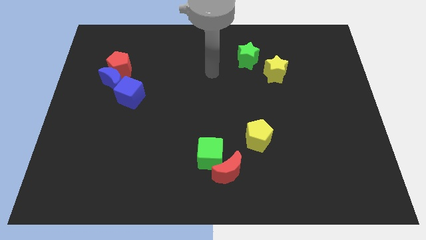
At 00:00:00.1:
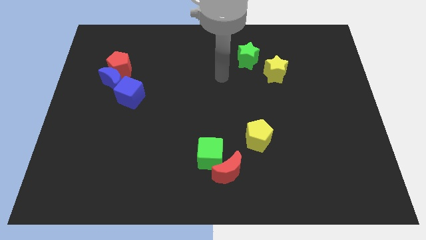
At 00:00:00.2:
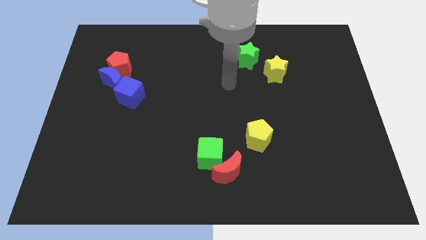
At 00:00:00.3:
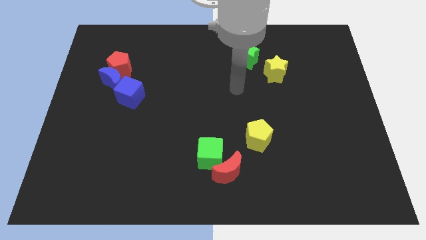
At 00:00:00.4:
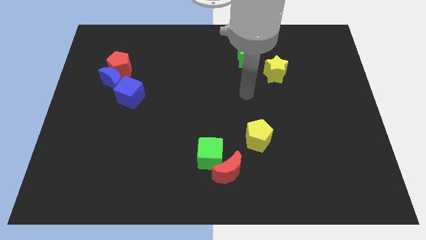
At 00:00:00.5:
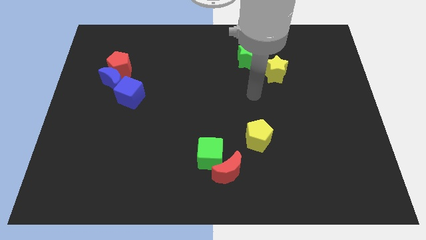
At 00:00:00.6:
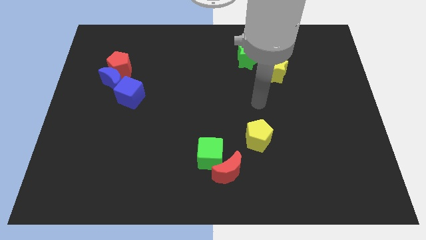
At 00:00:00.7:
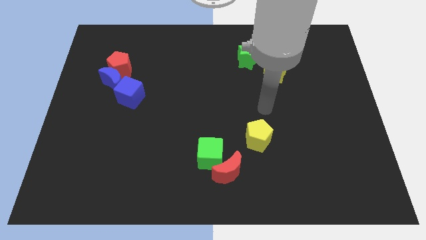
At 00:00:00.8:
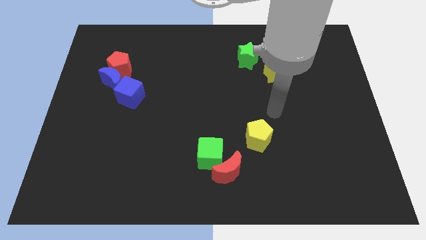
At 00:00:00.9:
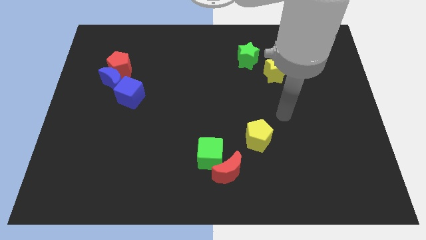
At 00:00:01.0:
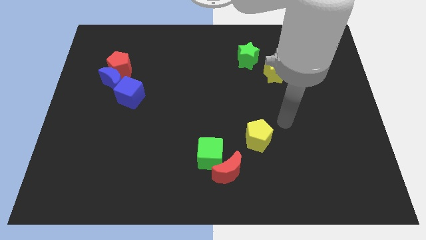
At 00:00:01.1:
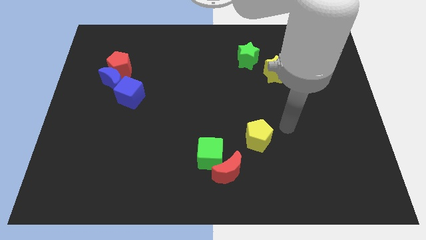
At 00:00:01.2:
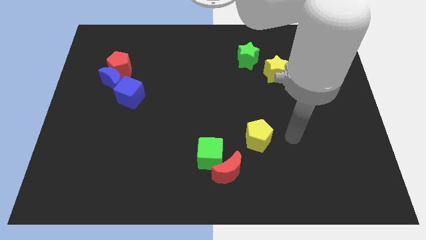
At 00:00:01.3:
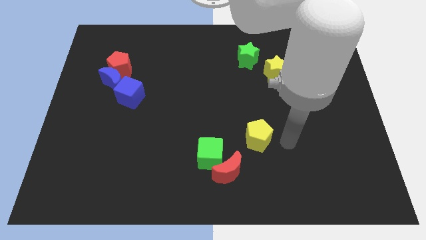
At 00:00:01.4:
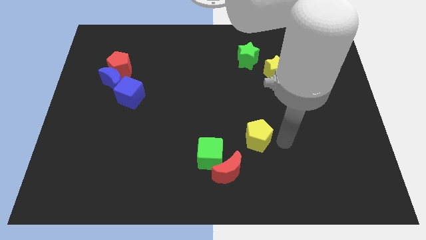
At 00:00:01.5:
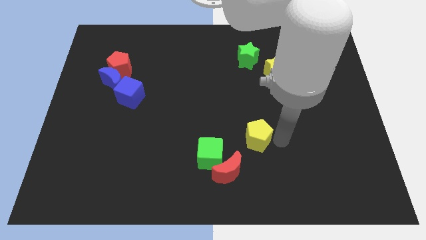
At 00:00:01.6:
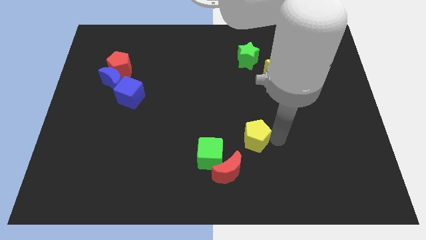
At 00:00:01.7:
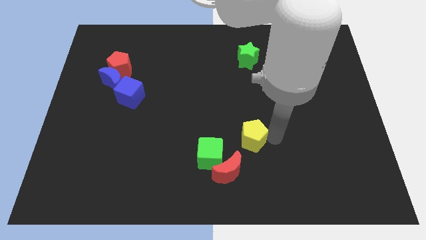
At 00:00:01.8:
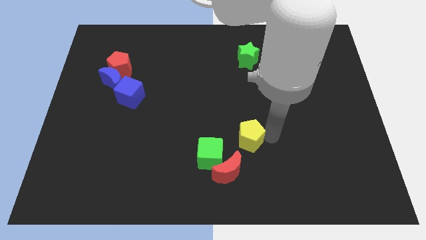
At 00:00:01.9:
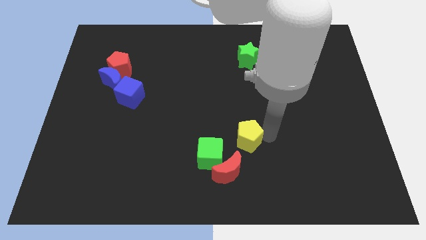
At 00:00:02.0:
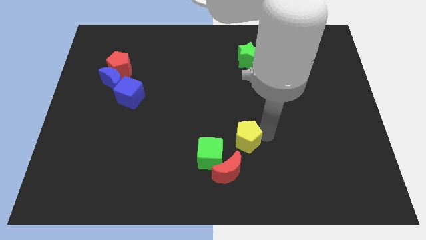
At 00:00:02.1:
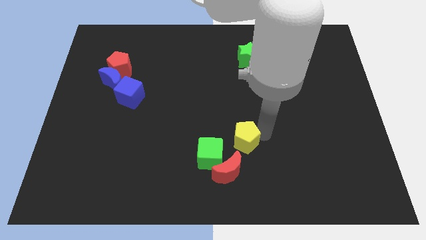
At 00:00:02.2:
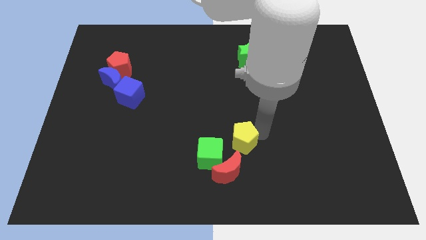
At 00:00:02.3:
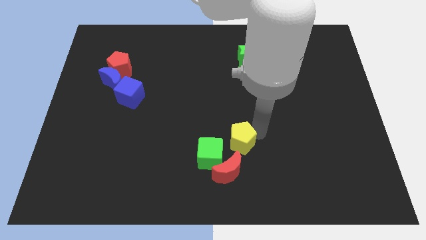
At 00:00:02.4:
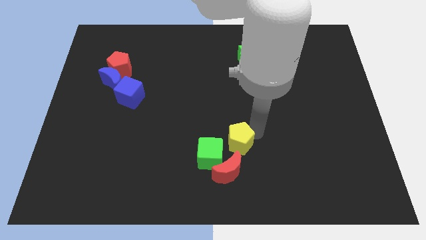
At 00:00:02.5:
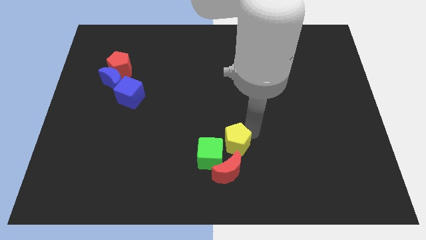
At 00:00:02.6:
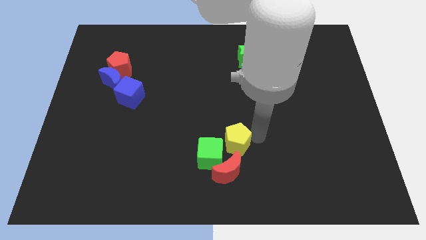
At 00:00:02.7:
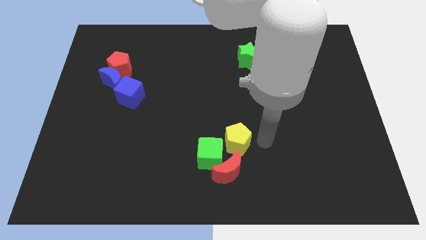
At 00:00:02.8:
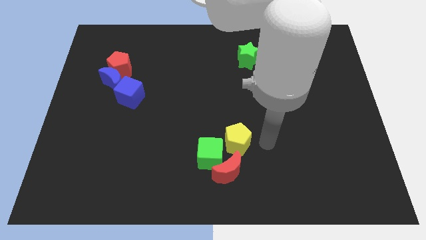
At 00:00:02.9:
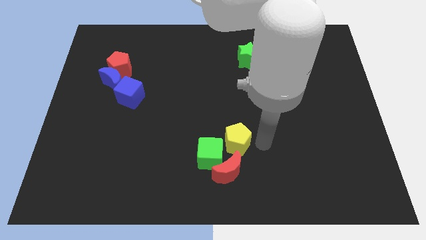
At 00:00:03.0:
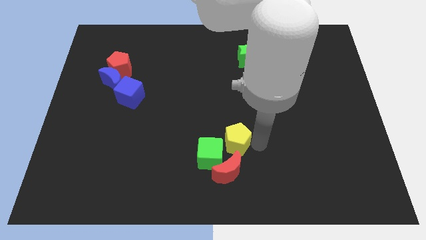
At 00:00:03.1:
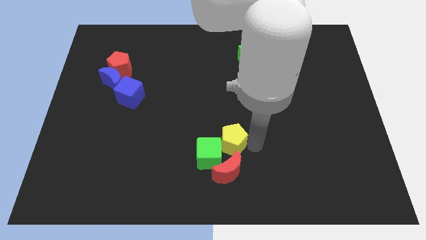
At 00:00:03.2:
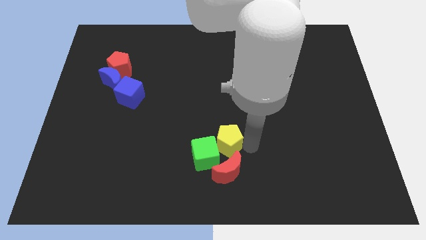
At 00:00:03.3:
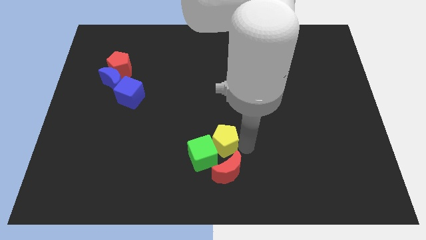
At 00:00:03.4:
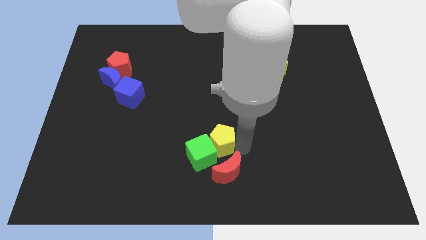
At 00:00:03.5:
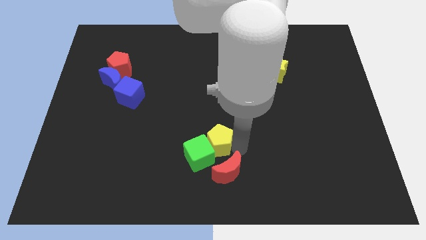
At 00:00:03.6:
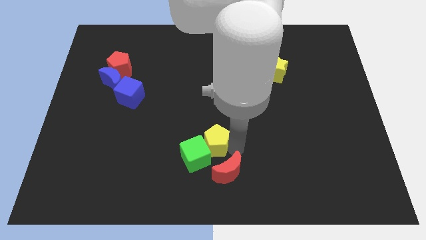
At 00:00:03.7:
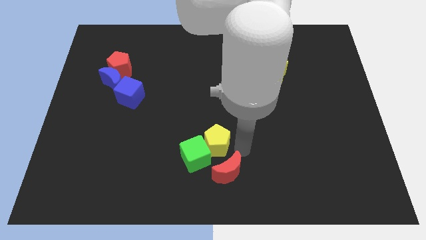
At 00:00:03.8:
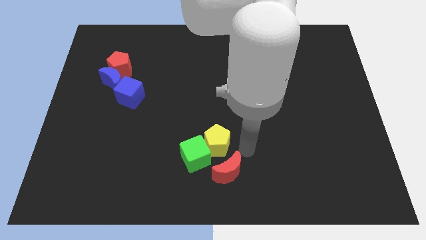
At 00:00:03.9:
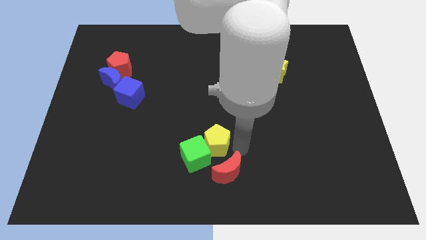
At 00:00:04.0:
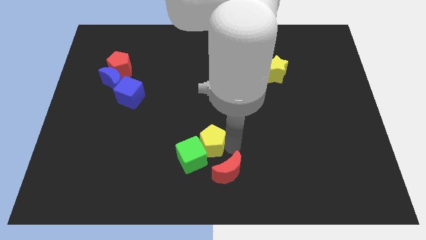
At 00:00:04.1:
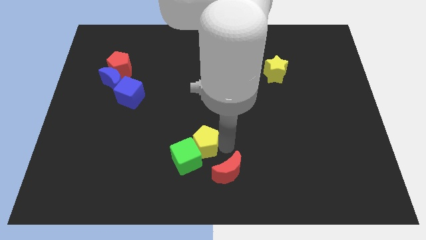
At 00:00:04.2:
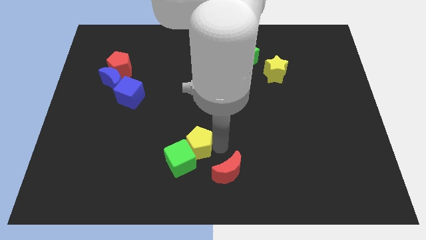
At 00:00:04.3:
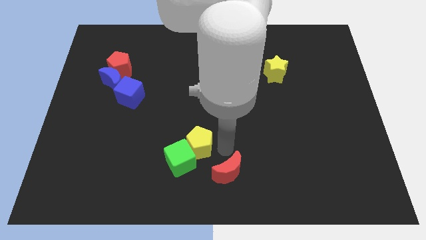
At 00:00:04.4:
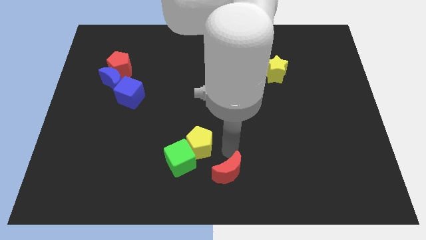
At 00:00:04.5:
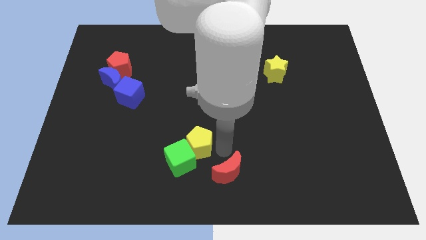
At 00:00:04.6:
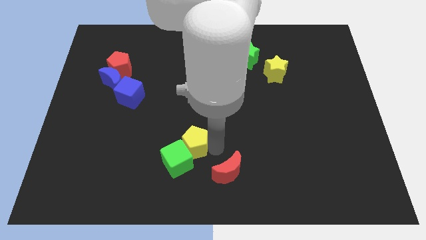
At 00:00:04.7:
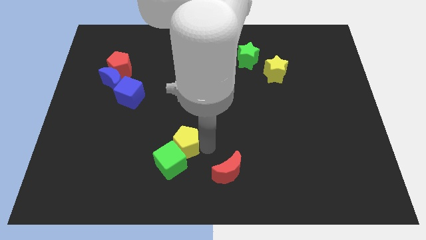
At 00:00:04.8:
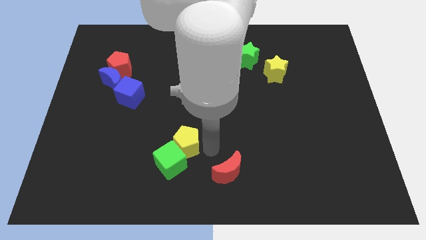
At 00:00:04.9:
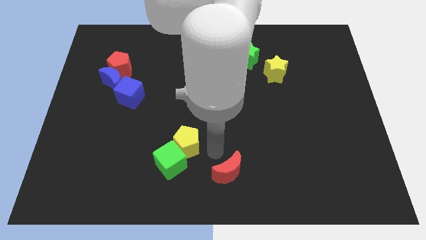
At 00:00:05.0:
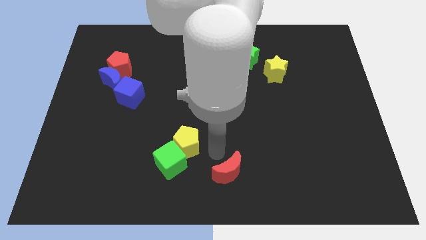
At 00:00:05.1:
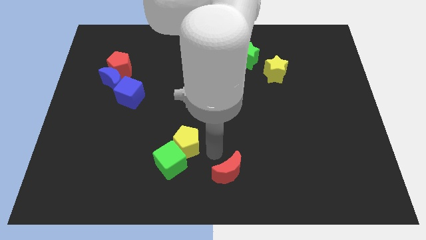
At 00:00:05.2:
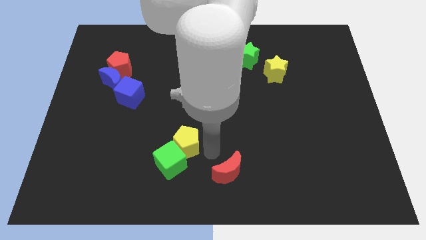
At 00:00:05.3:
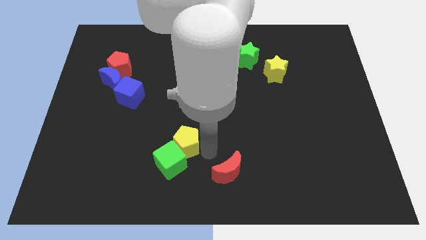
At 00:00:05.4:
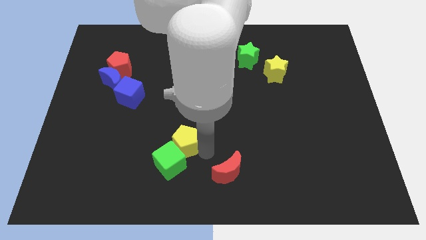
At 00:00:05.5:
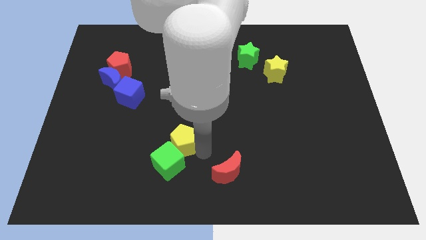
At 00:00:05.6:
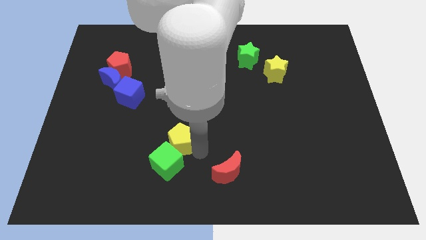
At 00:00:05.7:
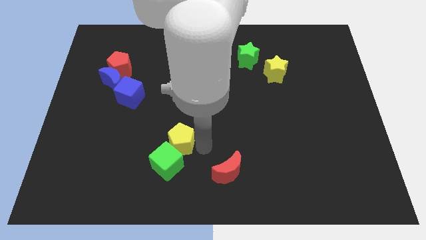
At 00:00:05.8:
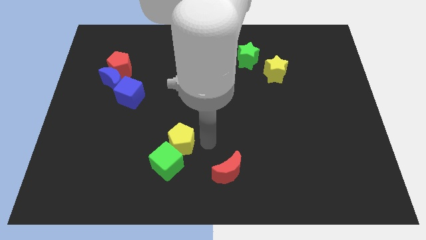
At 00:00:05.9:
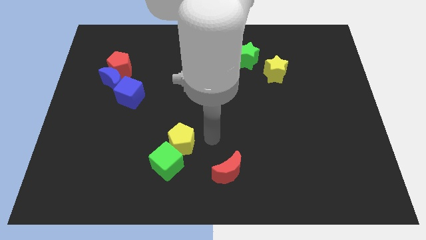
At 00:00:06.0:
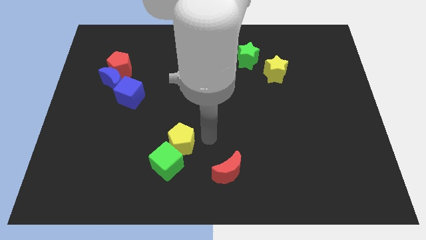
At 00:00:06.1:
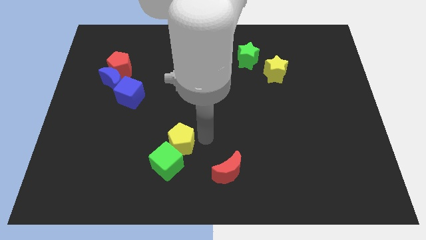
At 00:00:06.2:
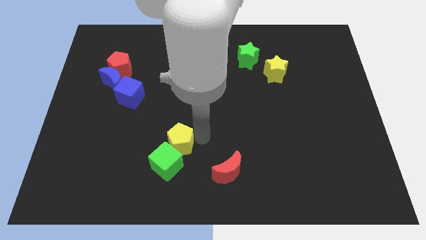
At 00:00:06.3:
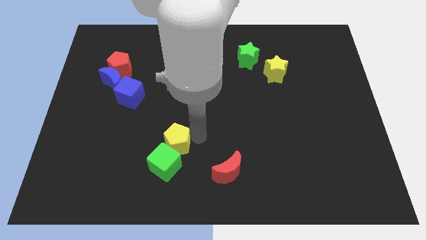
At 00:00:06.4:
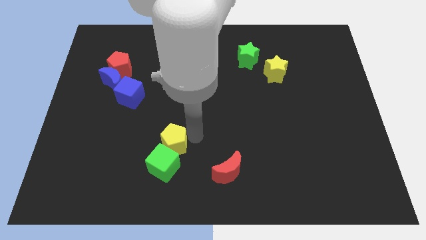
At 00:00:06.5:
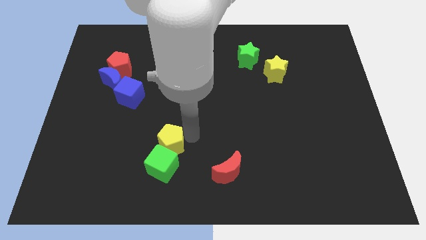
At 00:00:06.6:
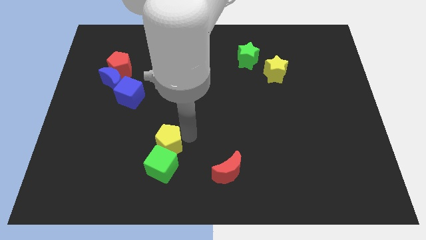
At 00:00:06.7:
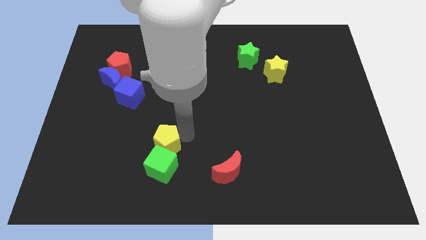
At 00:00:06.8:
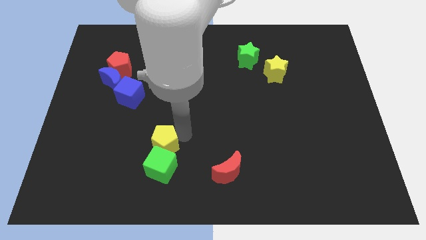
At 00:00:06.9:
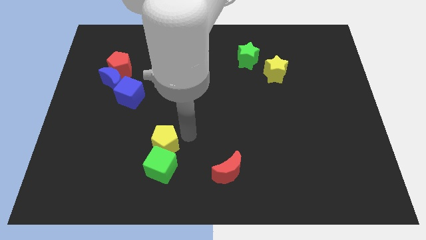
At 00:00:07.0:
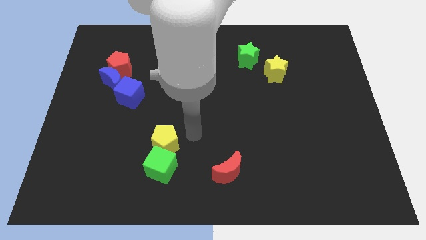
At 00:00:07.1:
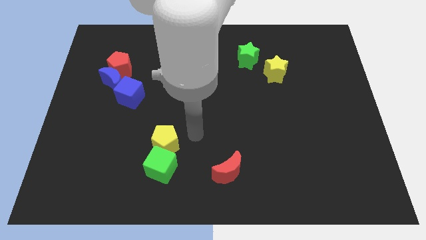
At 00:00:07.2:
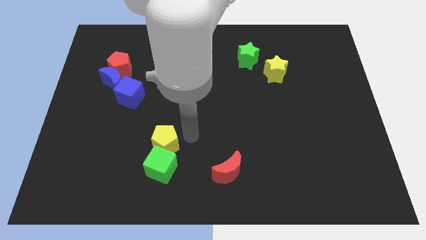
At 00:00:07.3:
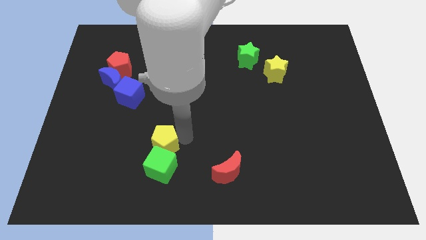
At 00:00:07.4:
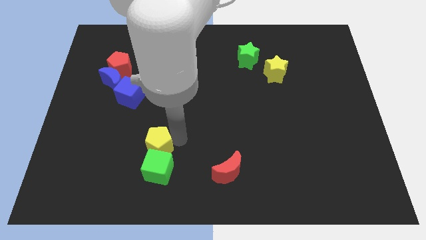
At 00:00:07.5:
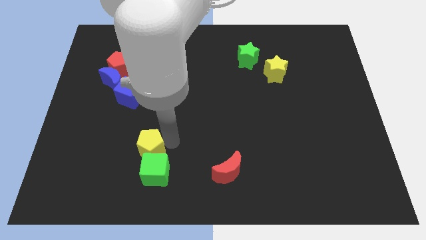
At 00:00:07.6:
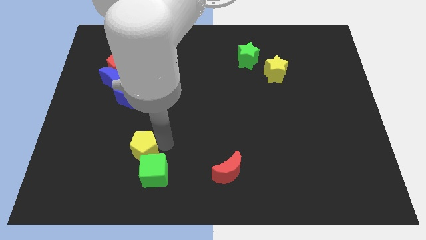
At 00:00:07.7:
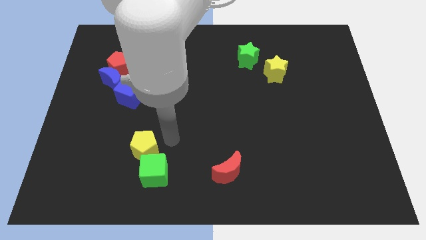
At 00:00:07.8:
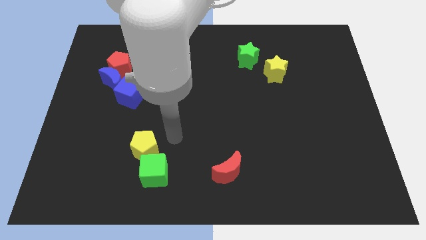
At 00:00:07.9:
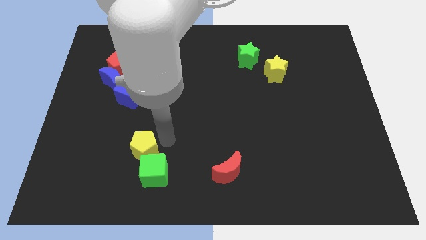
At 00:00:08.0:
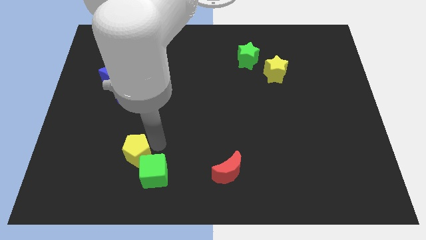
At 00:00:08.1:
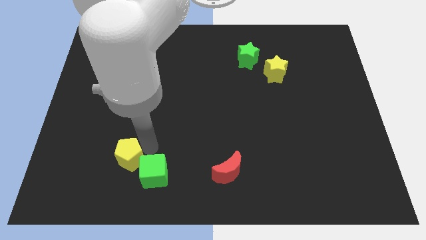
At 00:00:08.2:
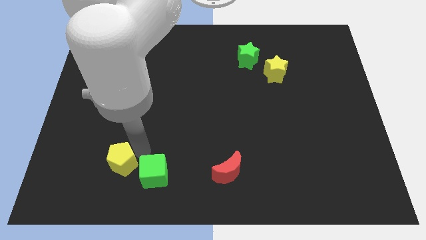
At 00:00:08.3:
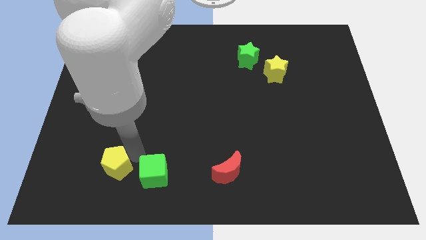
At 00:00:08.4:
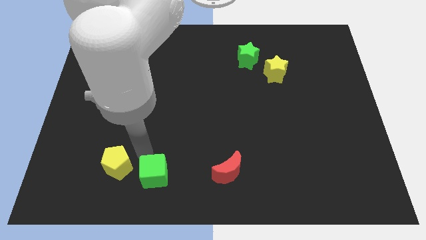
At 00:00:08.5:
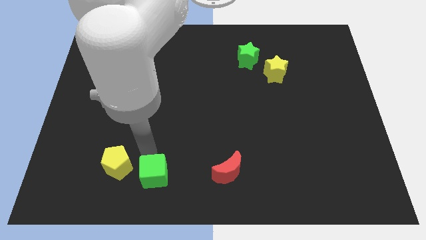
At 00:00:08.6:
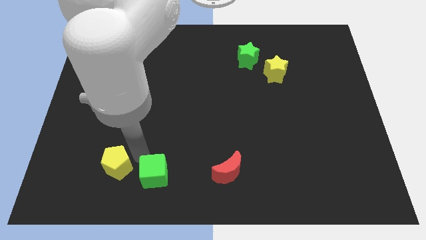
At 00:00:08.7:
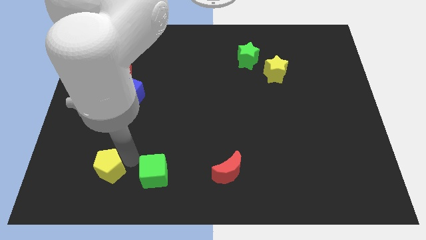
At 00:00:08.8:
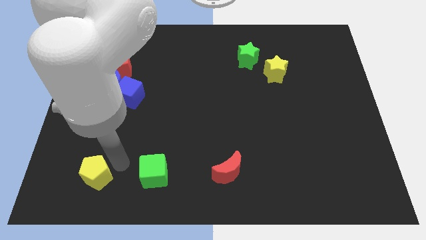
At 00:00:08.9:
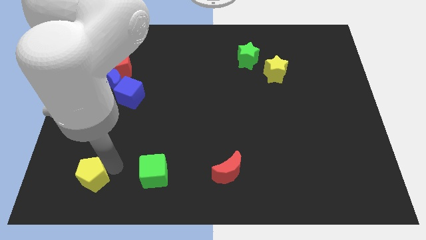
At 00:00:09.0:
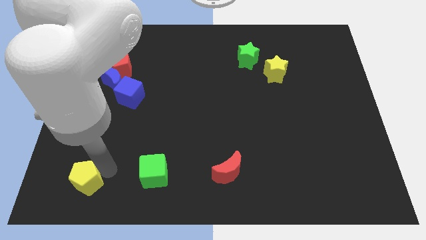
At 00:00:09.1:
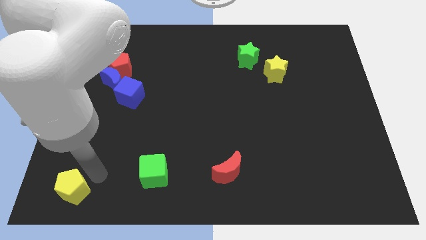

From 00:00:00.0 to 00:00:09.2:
put the yellow pentagon to the bottom left of the board
